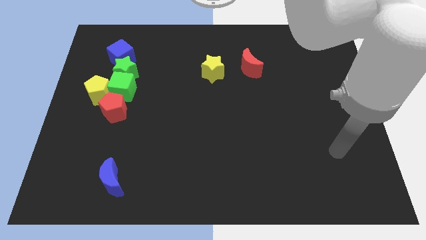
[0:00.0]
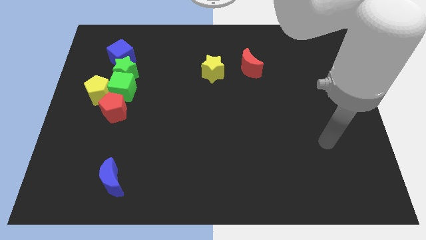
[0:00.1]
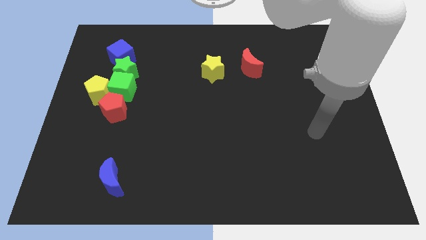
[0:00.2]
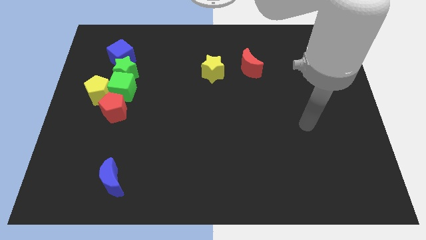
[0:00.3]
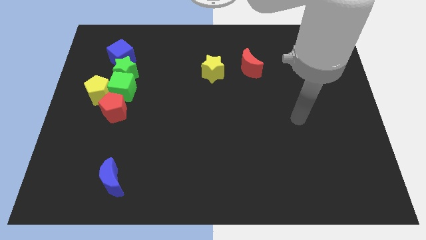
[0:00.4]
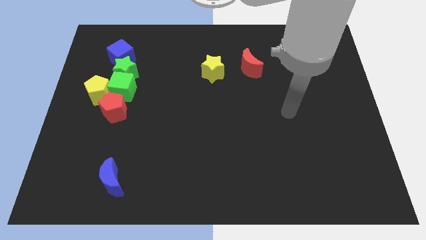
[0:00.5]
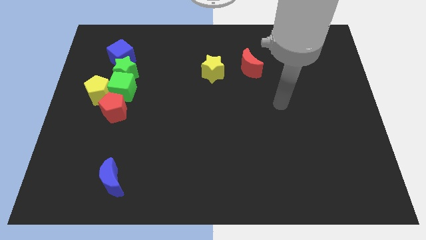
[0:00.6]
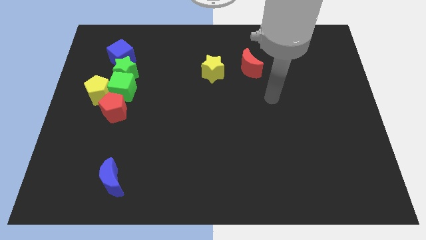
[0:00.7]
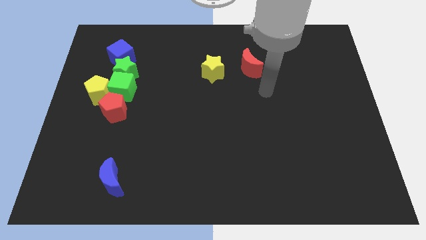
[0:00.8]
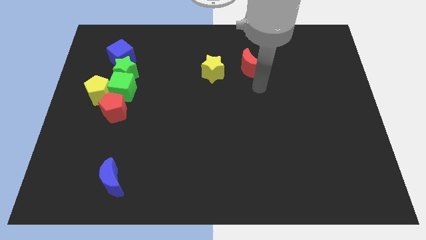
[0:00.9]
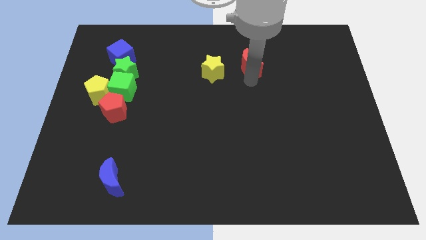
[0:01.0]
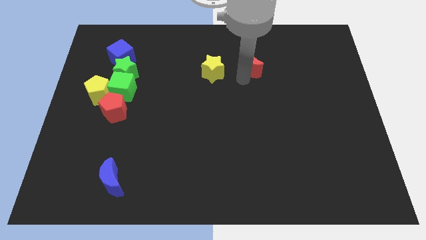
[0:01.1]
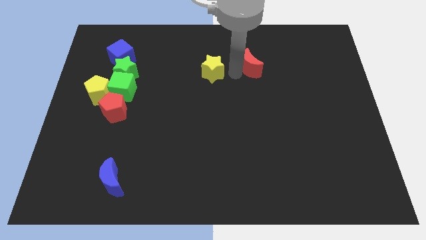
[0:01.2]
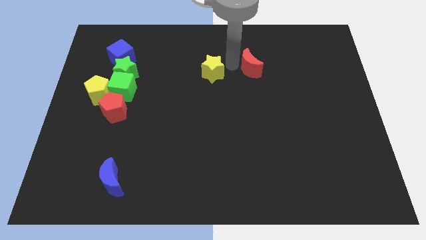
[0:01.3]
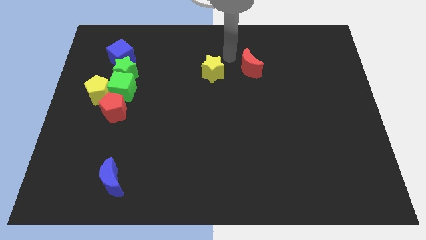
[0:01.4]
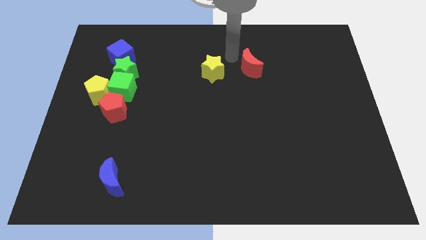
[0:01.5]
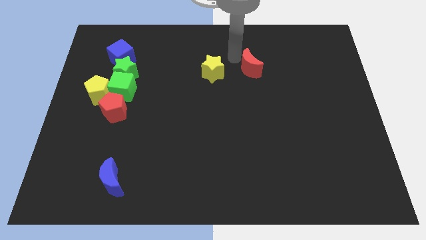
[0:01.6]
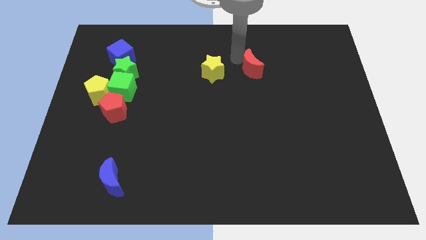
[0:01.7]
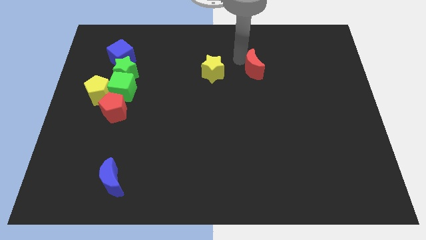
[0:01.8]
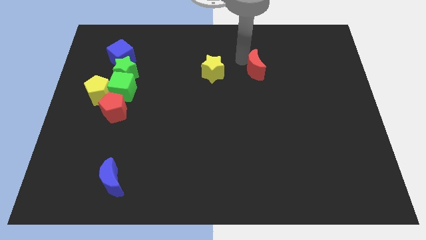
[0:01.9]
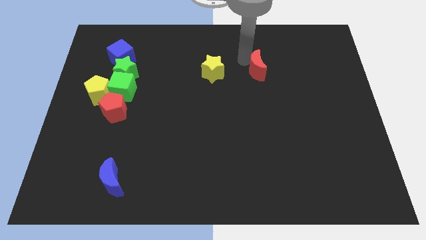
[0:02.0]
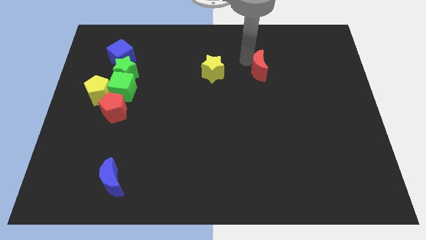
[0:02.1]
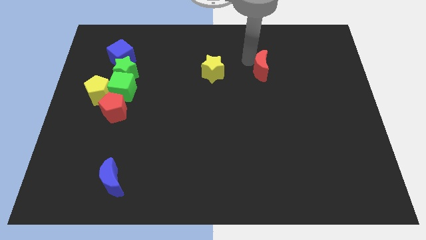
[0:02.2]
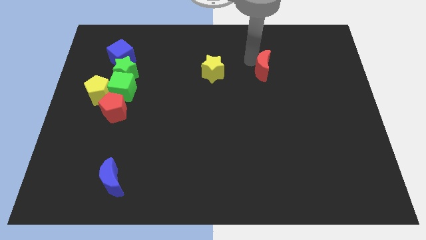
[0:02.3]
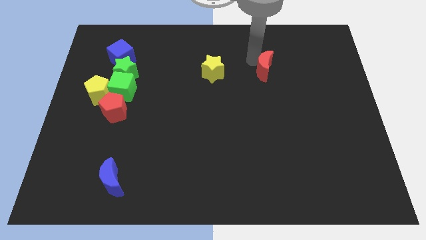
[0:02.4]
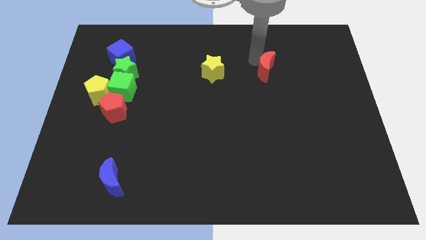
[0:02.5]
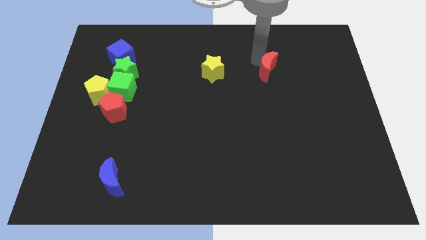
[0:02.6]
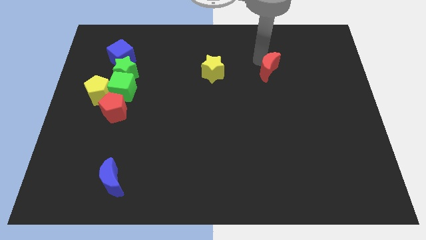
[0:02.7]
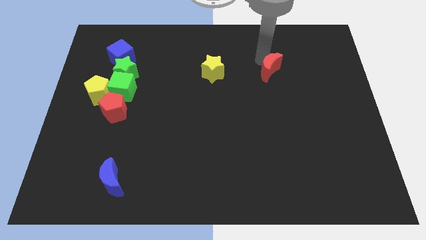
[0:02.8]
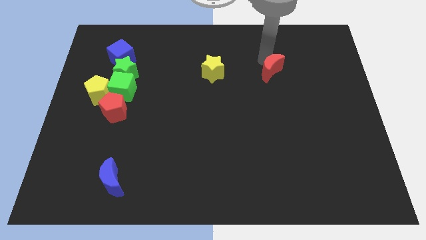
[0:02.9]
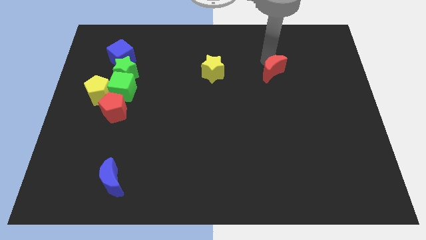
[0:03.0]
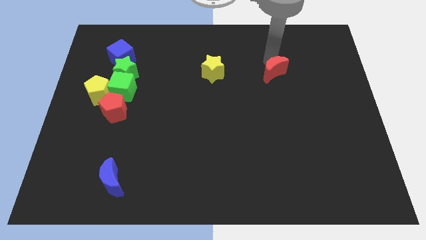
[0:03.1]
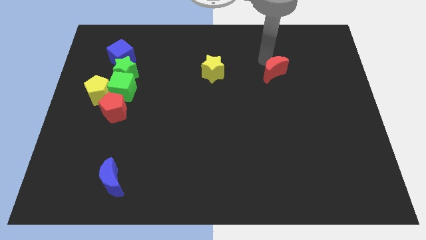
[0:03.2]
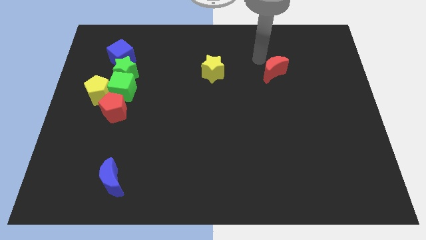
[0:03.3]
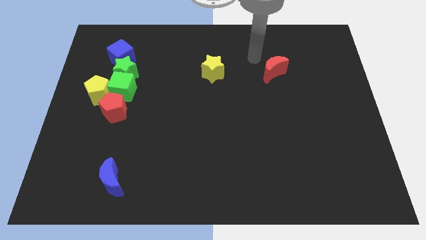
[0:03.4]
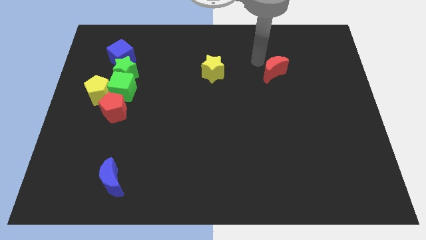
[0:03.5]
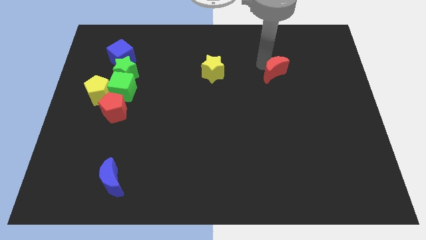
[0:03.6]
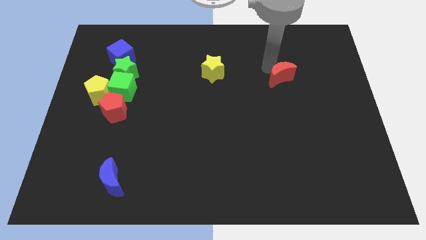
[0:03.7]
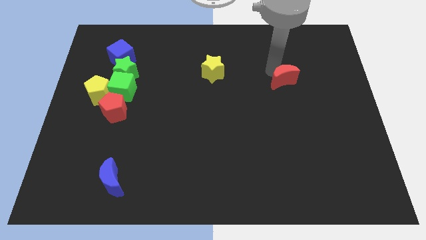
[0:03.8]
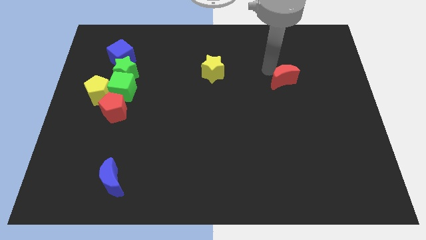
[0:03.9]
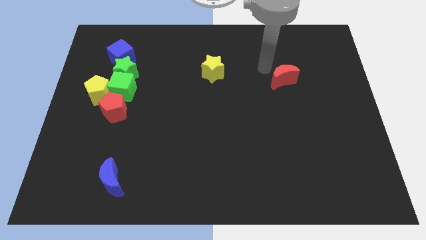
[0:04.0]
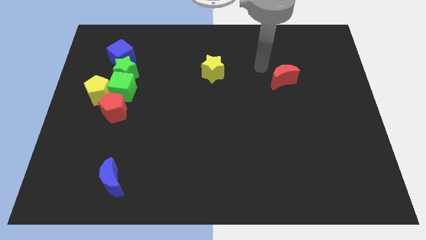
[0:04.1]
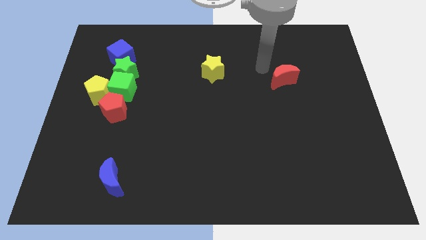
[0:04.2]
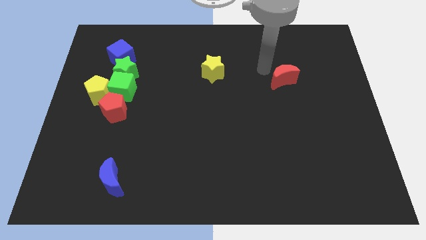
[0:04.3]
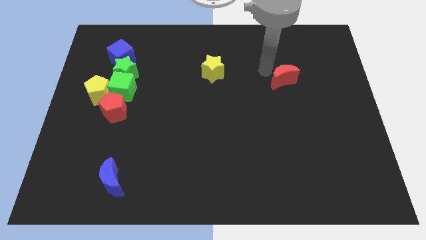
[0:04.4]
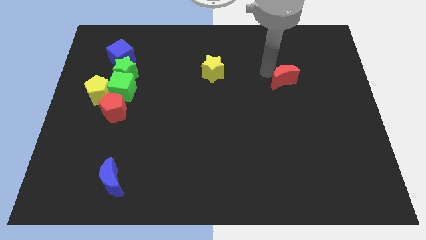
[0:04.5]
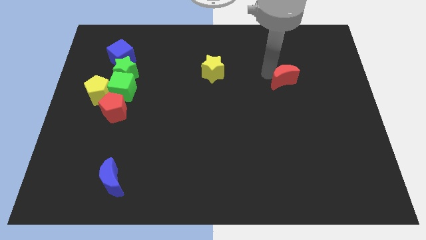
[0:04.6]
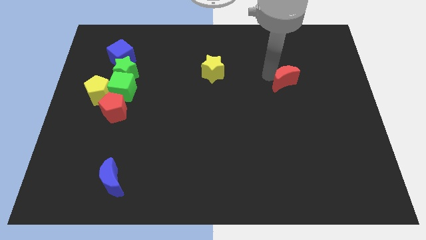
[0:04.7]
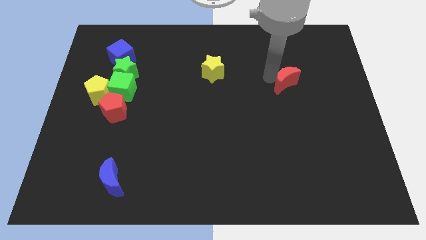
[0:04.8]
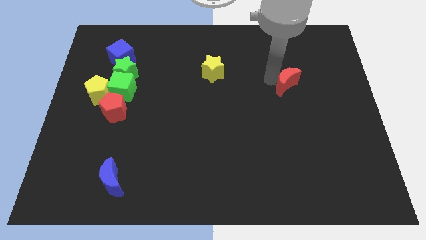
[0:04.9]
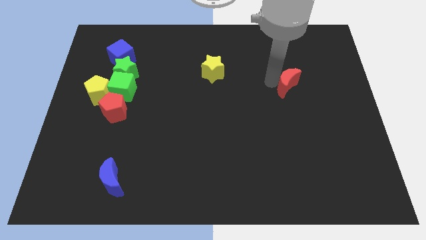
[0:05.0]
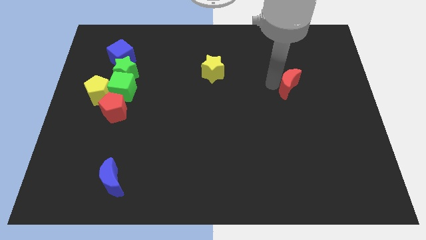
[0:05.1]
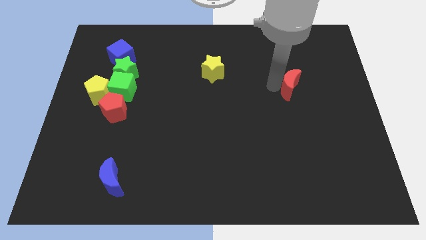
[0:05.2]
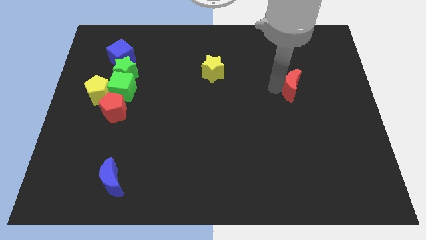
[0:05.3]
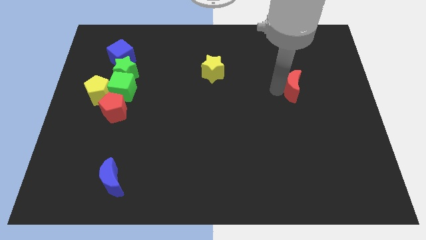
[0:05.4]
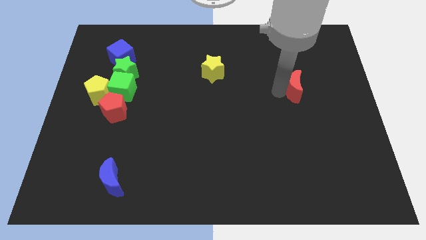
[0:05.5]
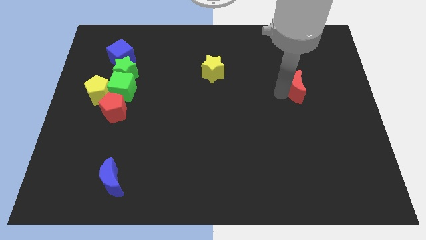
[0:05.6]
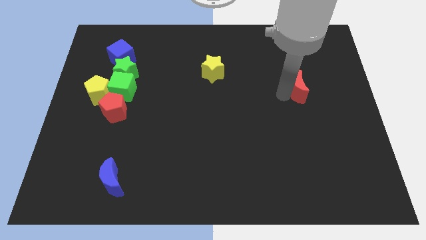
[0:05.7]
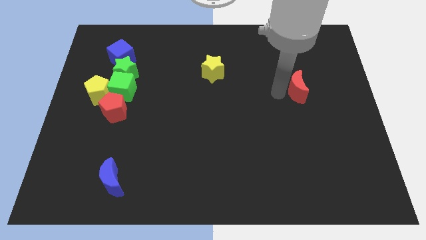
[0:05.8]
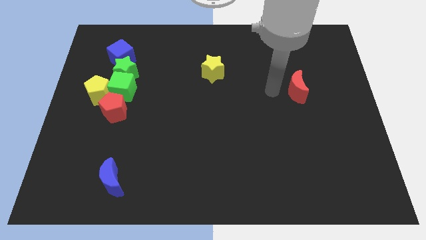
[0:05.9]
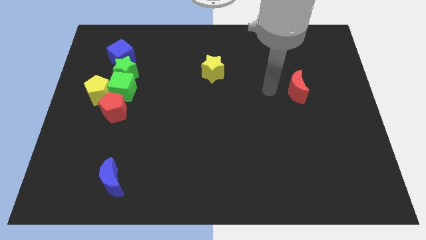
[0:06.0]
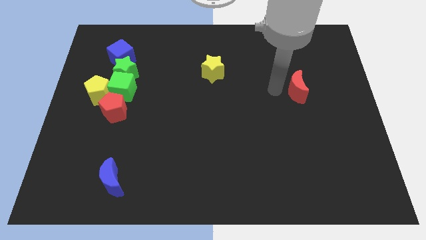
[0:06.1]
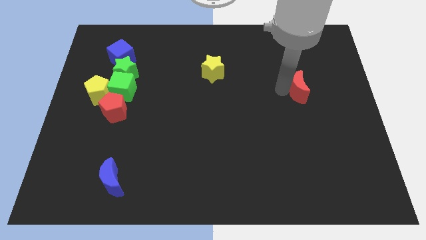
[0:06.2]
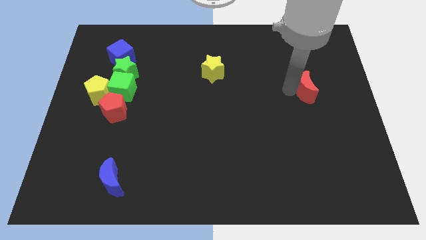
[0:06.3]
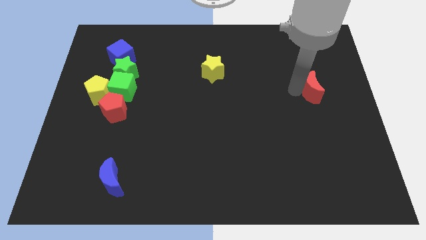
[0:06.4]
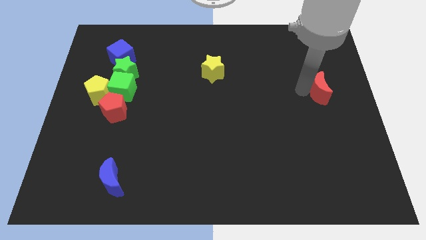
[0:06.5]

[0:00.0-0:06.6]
push the red moon to the center right

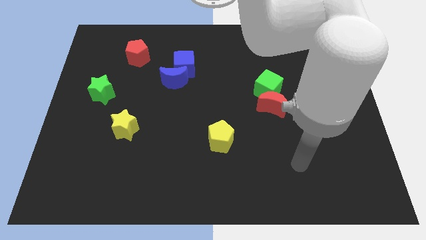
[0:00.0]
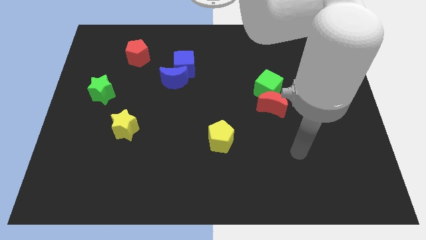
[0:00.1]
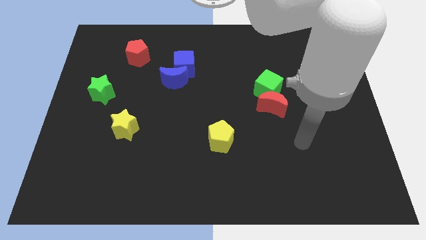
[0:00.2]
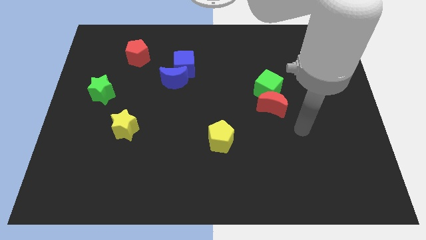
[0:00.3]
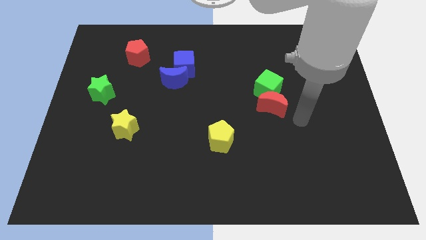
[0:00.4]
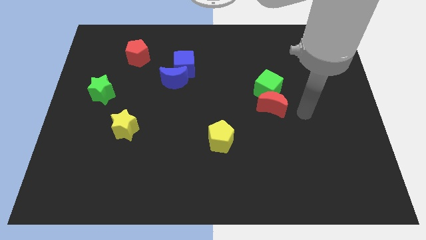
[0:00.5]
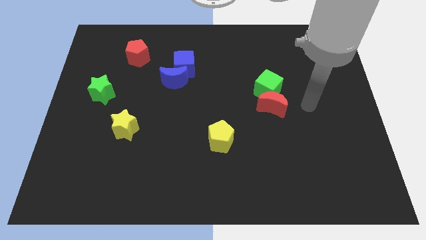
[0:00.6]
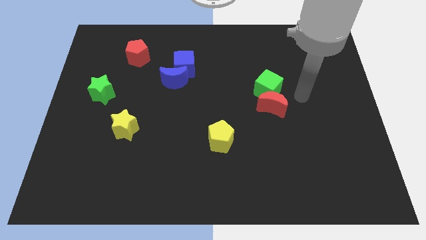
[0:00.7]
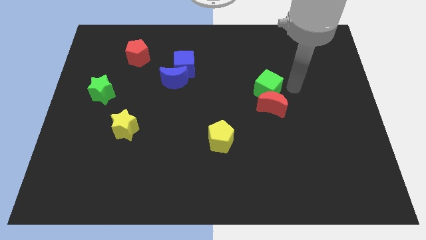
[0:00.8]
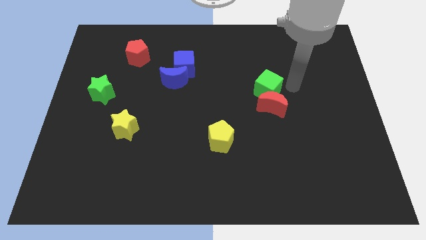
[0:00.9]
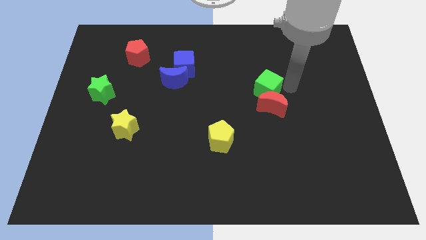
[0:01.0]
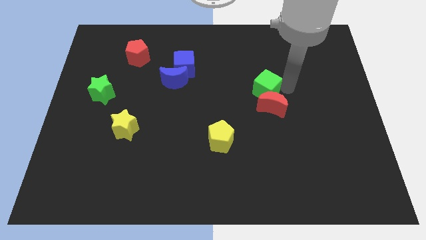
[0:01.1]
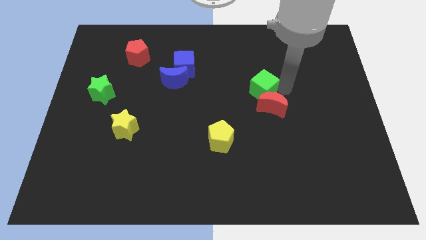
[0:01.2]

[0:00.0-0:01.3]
move the green cube to the center of the board
